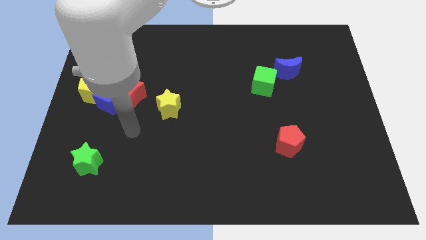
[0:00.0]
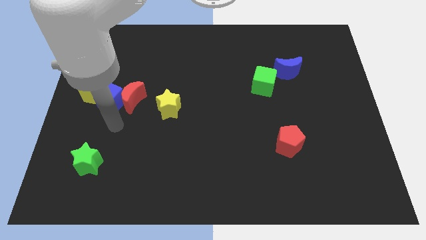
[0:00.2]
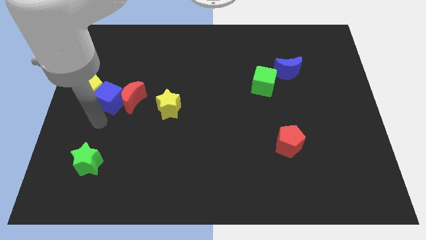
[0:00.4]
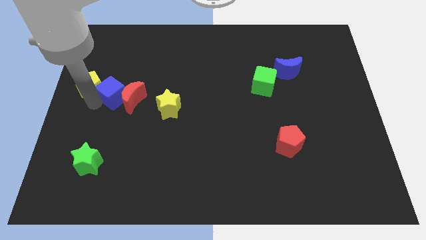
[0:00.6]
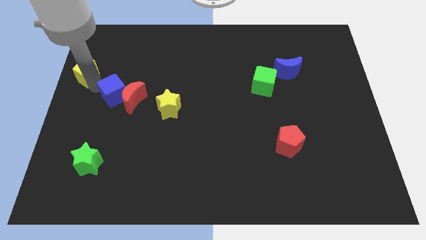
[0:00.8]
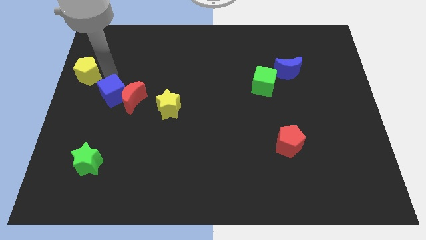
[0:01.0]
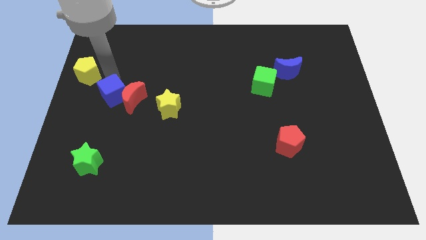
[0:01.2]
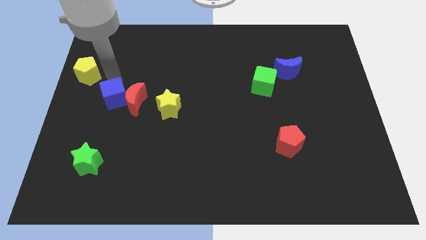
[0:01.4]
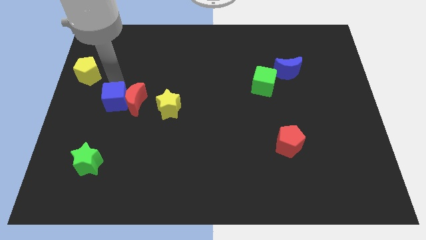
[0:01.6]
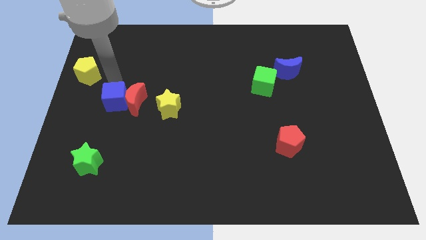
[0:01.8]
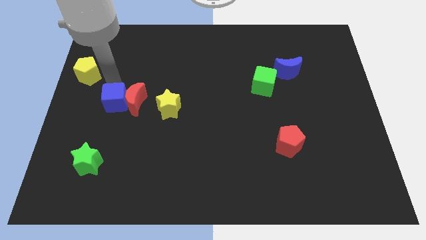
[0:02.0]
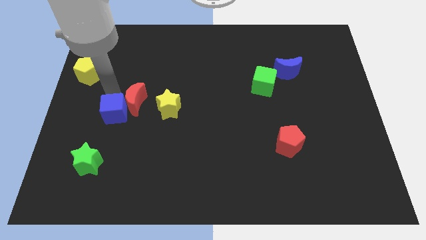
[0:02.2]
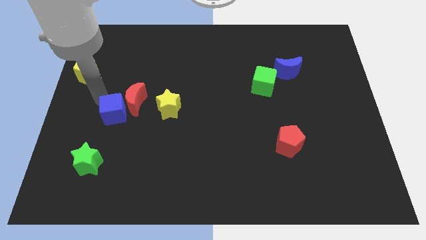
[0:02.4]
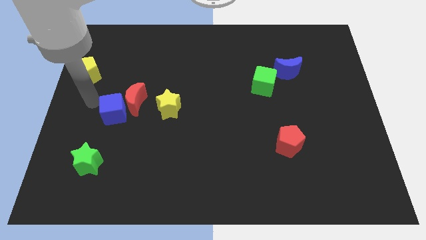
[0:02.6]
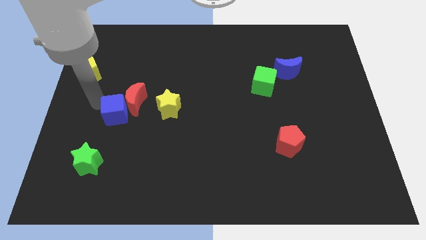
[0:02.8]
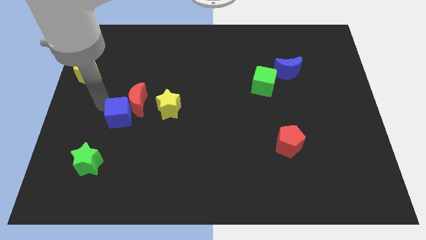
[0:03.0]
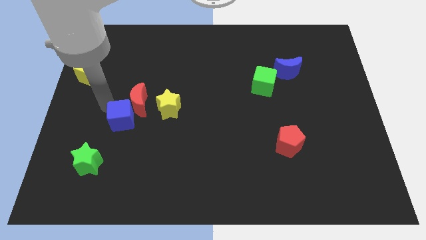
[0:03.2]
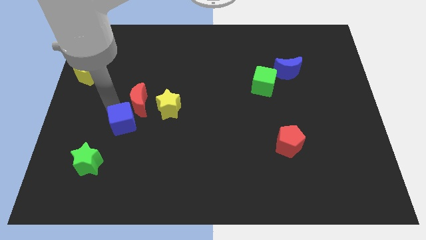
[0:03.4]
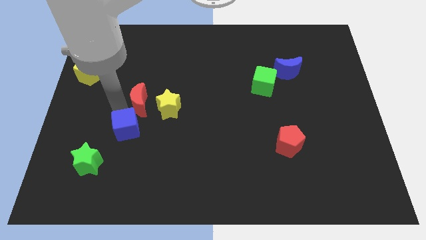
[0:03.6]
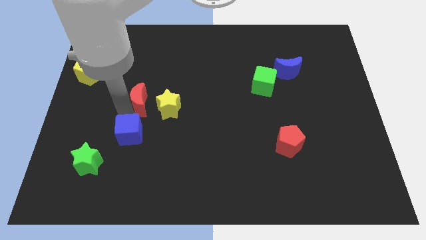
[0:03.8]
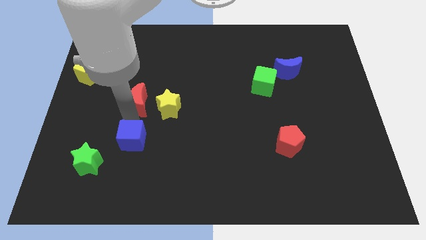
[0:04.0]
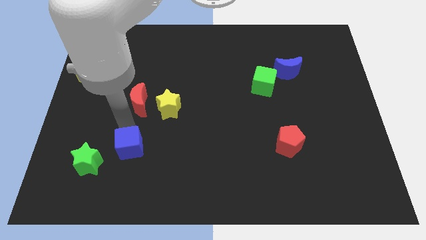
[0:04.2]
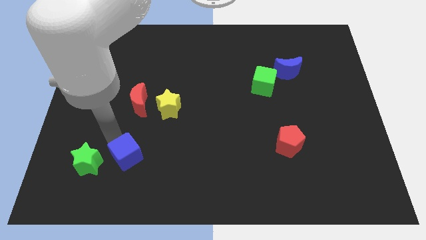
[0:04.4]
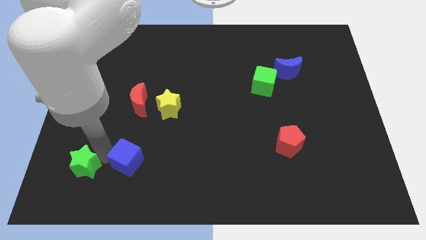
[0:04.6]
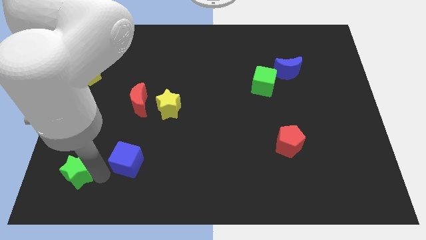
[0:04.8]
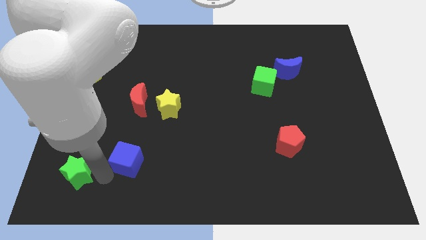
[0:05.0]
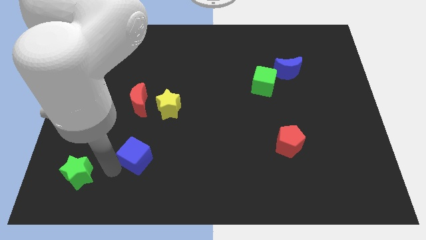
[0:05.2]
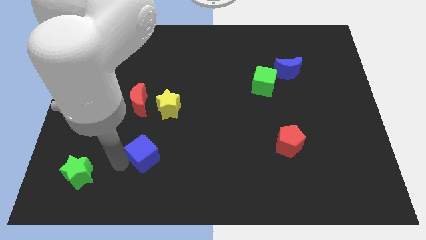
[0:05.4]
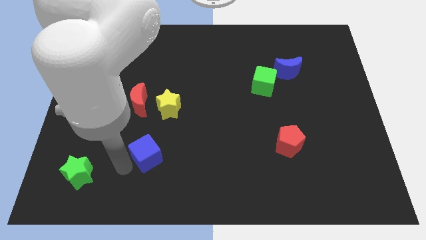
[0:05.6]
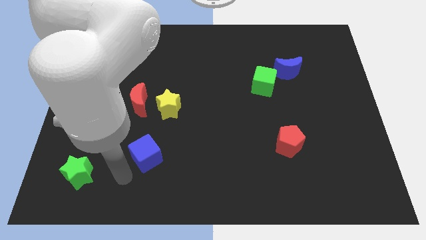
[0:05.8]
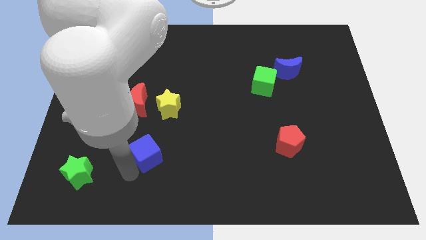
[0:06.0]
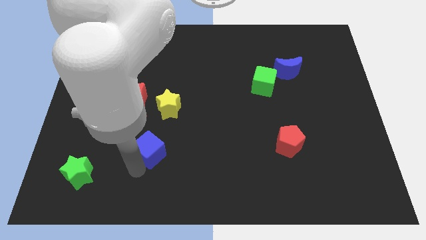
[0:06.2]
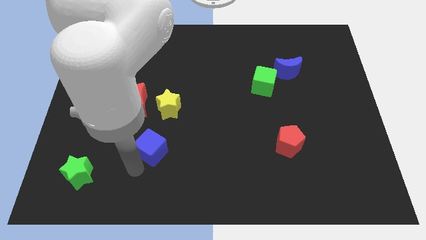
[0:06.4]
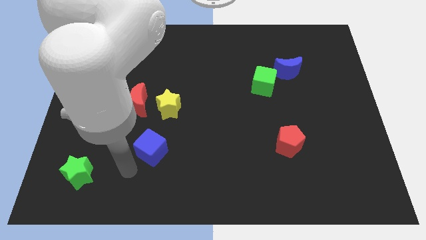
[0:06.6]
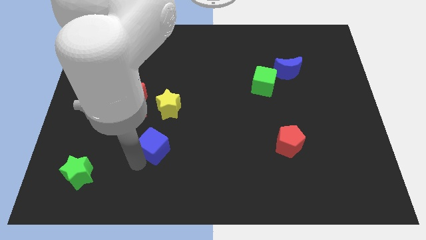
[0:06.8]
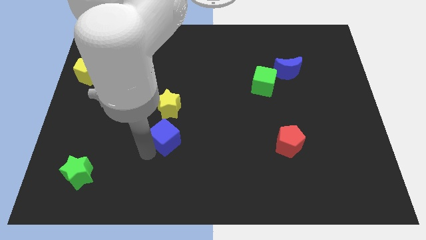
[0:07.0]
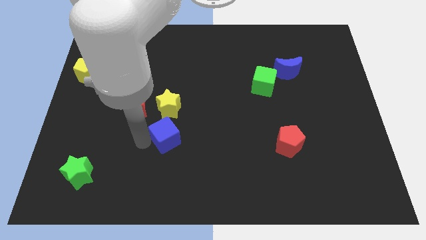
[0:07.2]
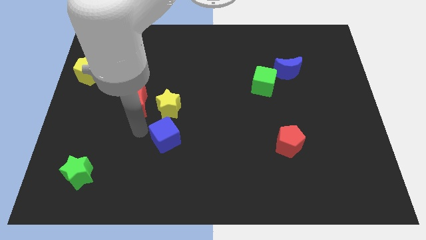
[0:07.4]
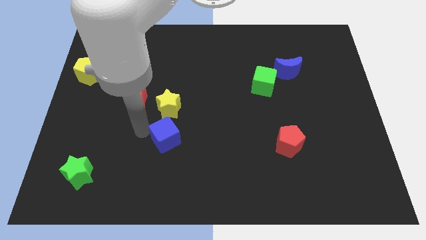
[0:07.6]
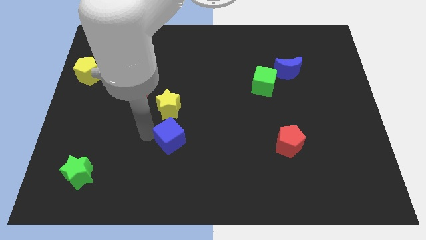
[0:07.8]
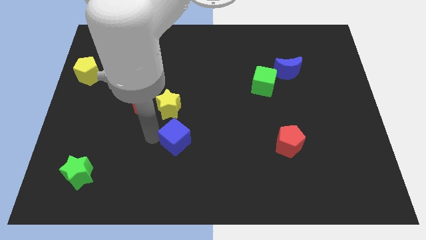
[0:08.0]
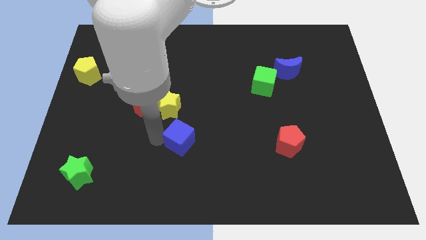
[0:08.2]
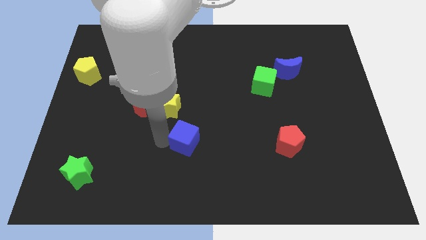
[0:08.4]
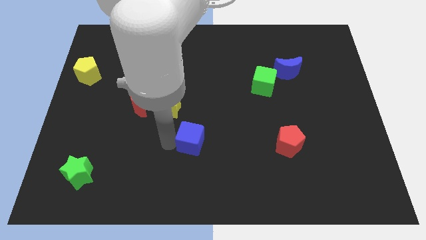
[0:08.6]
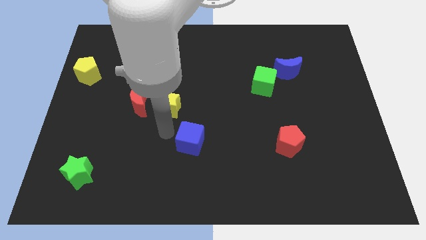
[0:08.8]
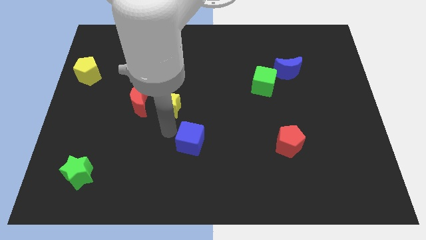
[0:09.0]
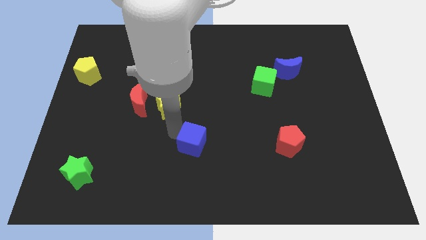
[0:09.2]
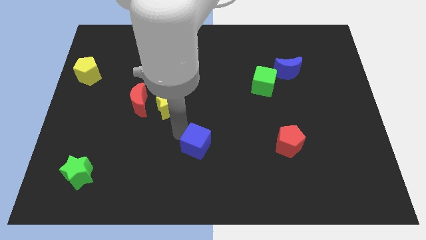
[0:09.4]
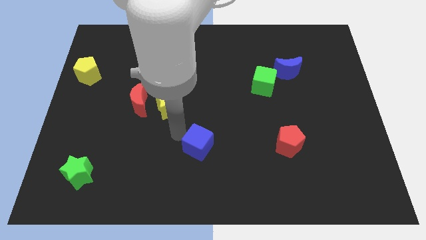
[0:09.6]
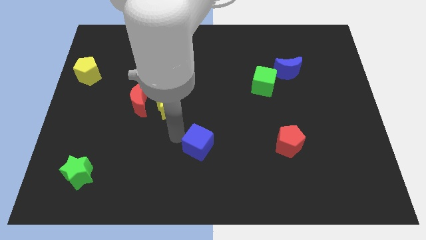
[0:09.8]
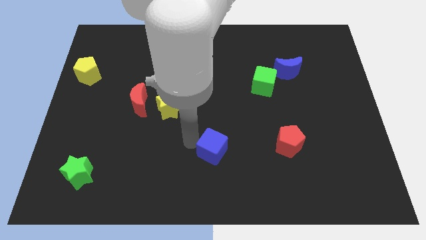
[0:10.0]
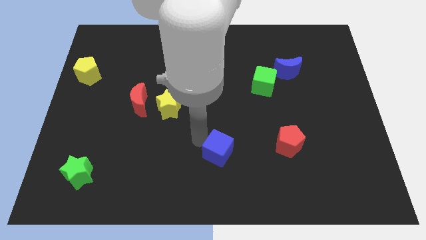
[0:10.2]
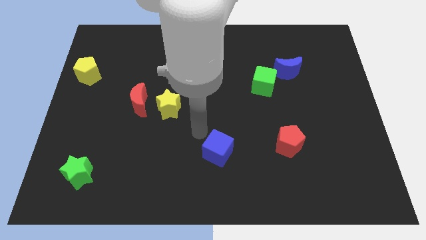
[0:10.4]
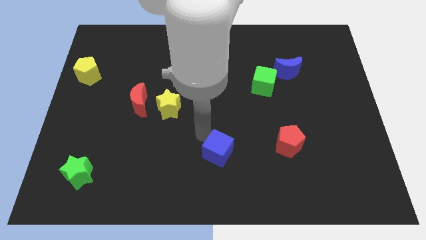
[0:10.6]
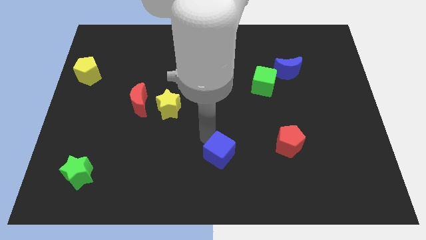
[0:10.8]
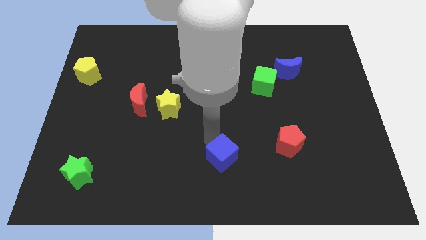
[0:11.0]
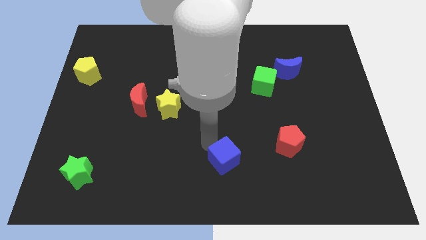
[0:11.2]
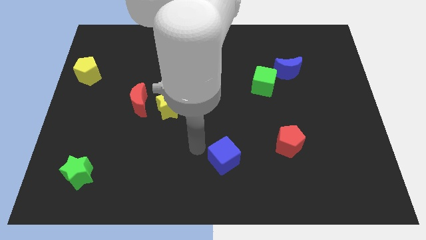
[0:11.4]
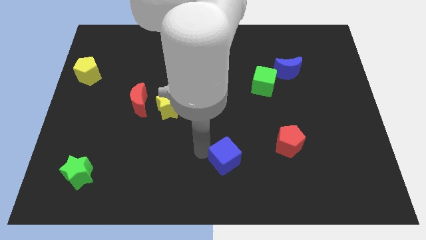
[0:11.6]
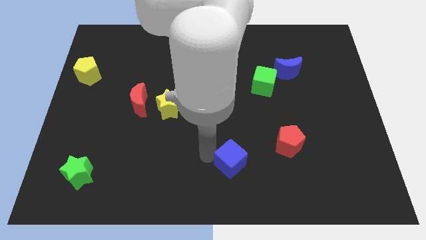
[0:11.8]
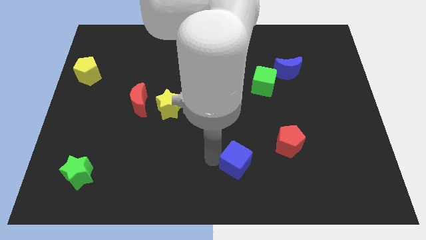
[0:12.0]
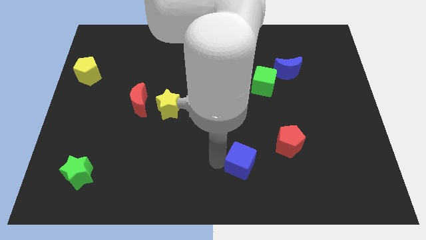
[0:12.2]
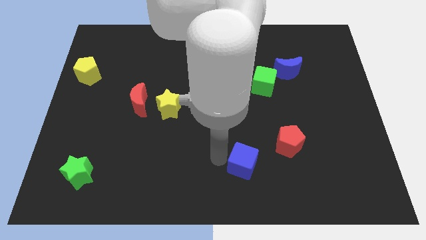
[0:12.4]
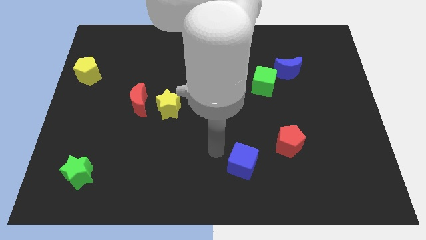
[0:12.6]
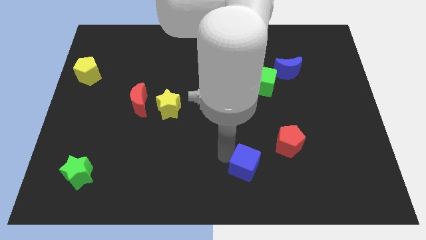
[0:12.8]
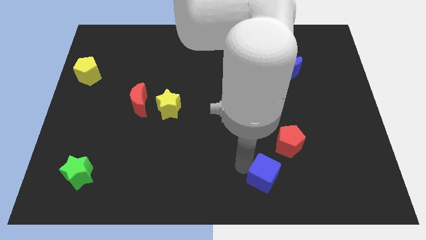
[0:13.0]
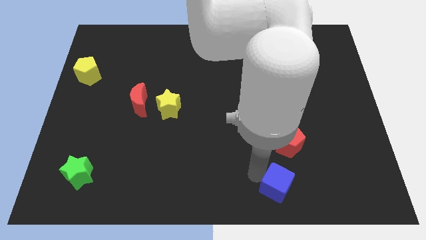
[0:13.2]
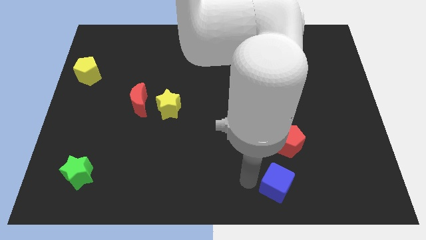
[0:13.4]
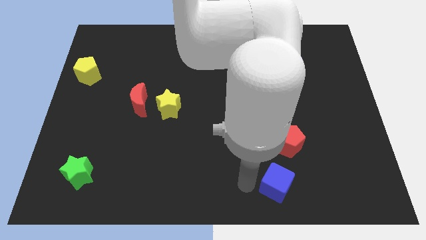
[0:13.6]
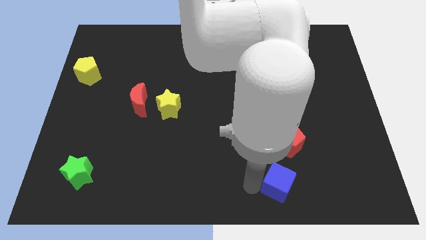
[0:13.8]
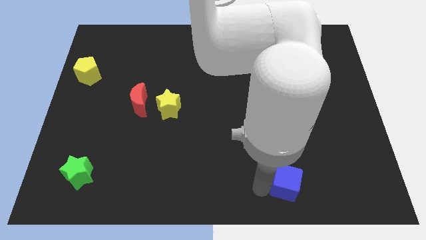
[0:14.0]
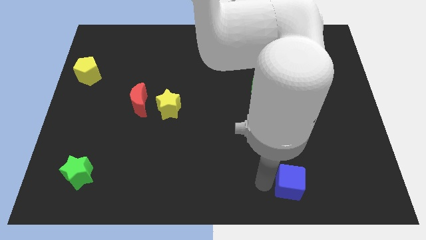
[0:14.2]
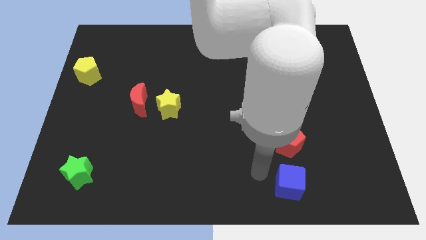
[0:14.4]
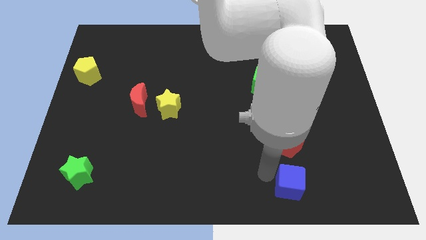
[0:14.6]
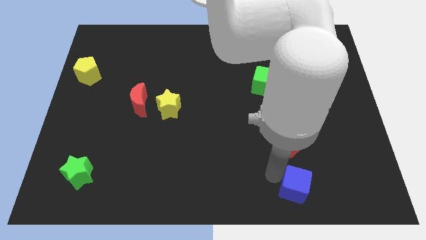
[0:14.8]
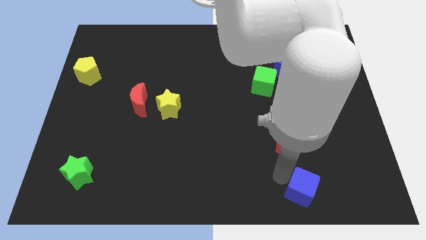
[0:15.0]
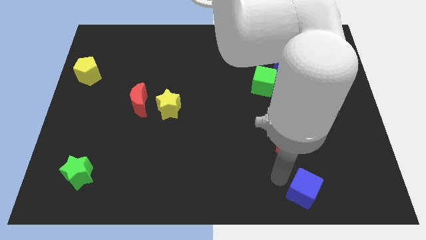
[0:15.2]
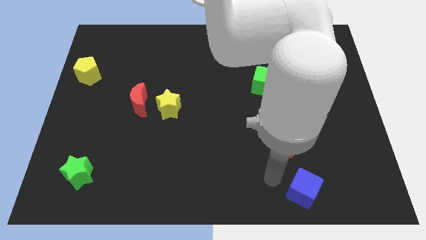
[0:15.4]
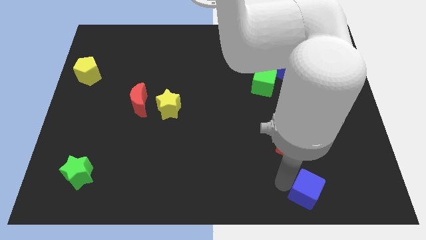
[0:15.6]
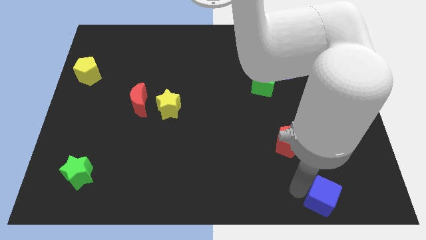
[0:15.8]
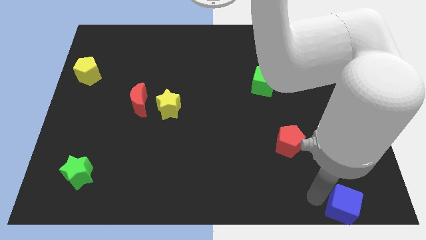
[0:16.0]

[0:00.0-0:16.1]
move the blue cube to the bottom right of the board
